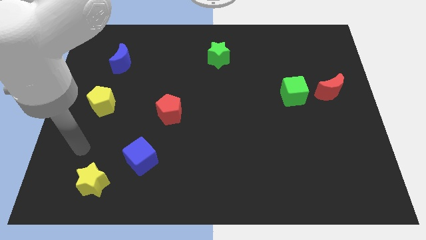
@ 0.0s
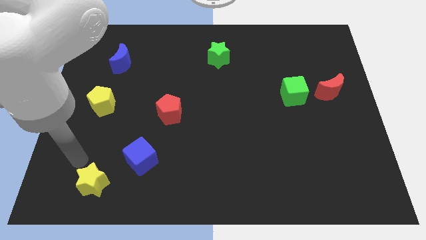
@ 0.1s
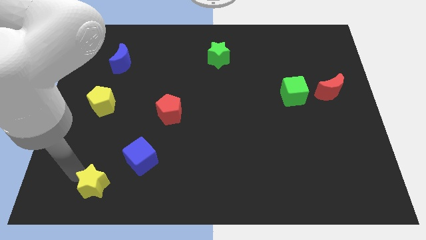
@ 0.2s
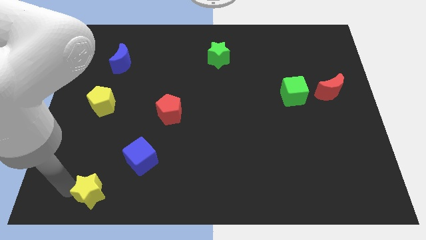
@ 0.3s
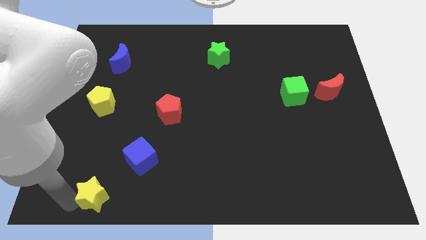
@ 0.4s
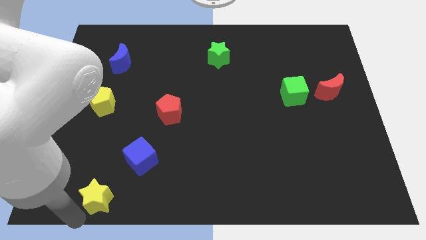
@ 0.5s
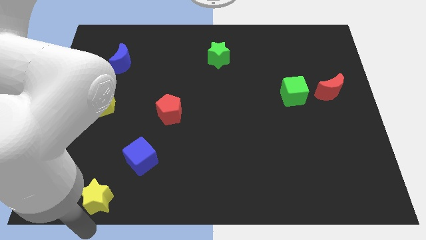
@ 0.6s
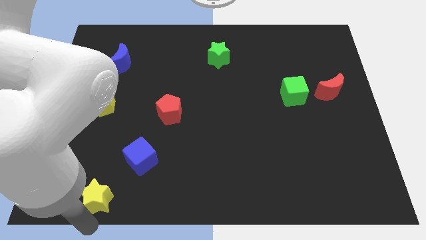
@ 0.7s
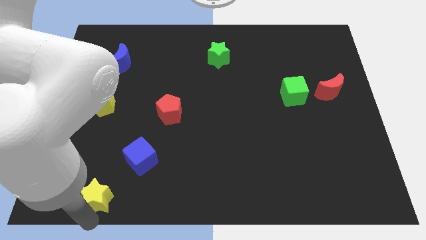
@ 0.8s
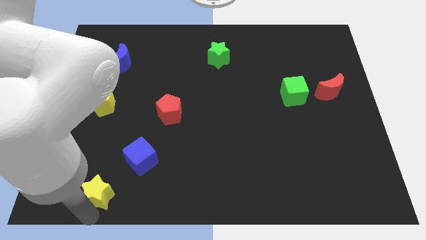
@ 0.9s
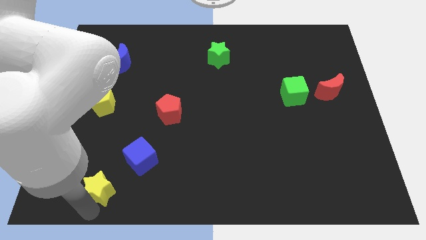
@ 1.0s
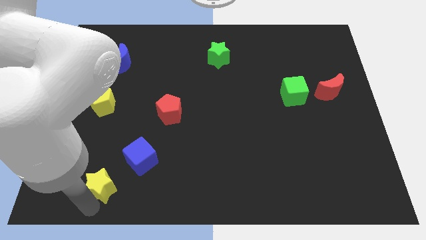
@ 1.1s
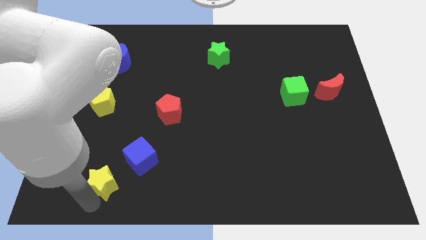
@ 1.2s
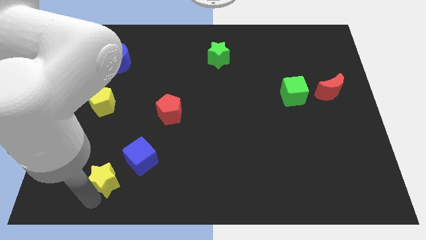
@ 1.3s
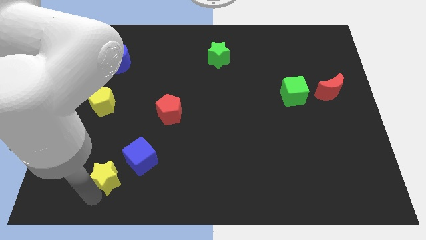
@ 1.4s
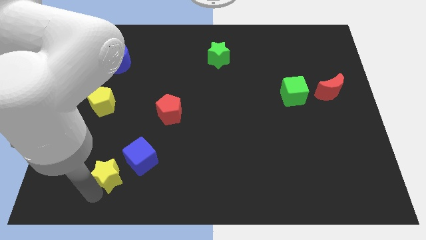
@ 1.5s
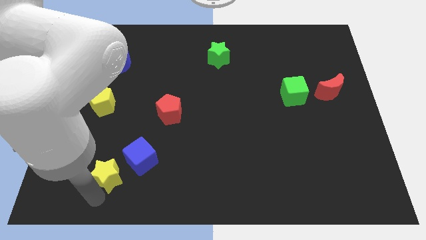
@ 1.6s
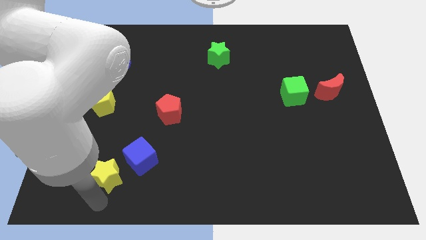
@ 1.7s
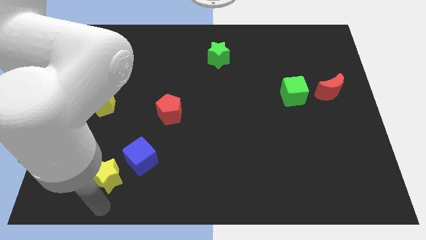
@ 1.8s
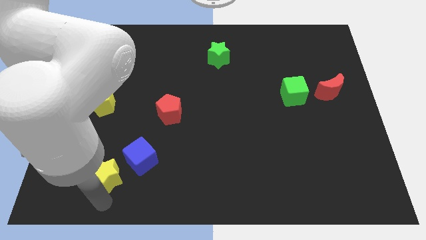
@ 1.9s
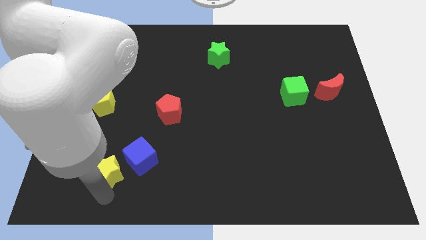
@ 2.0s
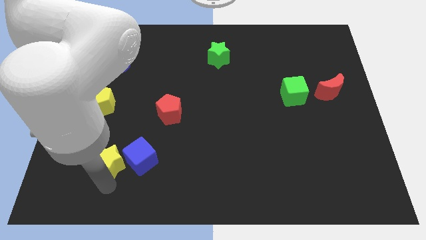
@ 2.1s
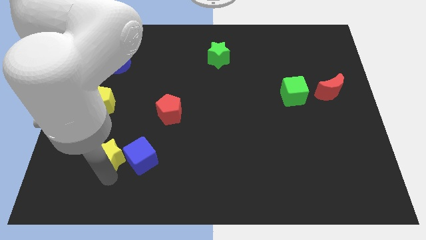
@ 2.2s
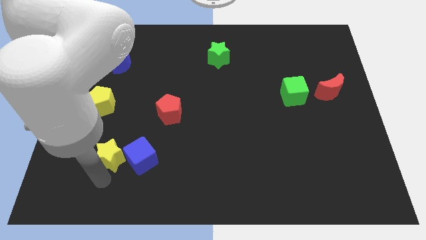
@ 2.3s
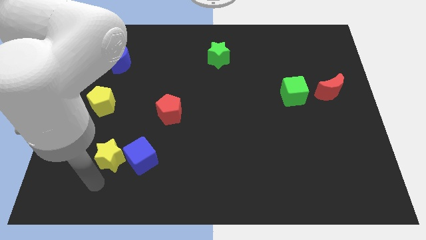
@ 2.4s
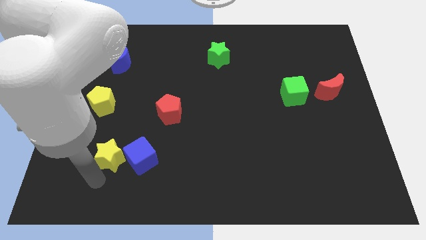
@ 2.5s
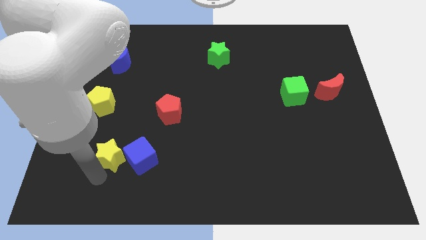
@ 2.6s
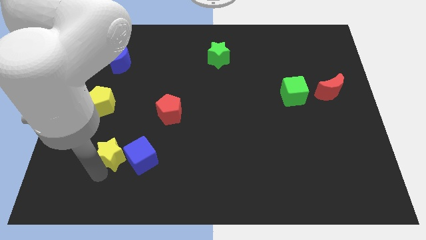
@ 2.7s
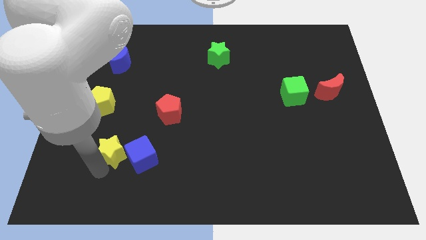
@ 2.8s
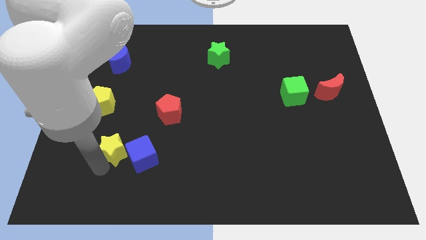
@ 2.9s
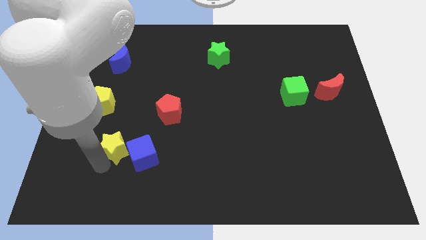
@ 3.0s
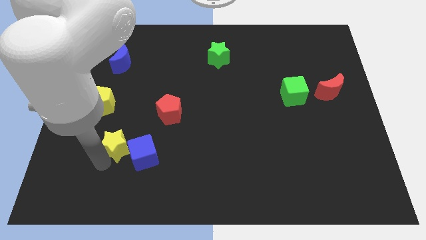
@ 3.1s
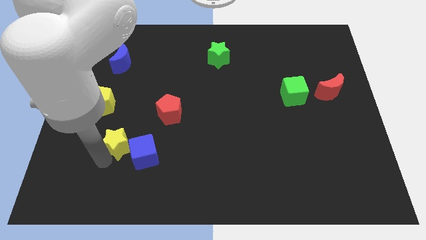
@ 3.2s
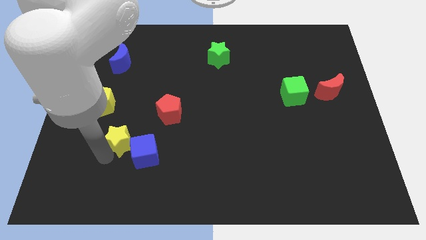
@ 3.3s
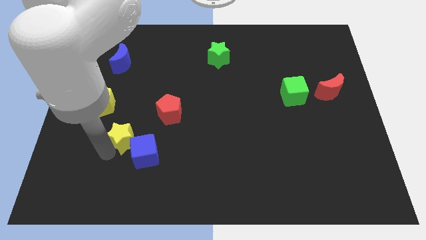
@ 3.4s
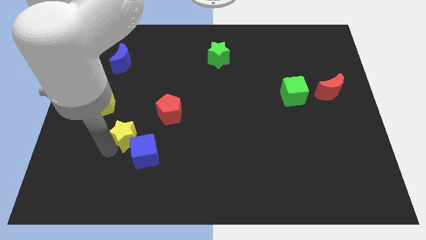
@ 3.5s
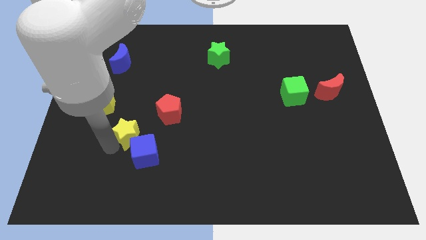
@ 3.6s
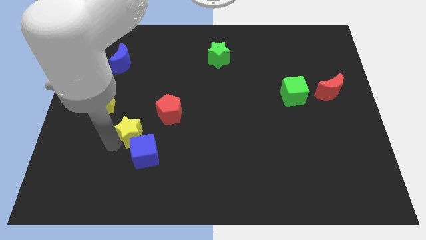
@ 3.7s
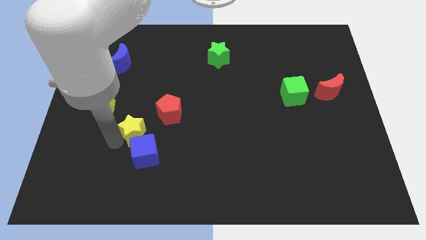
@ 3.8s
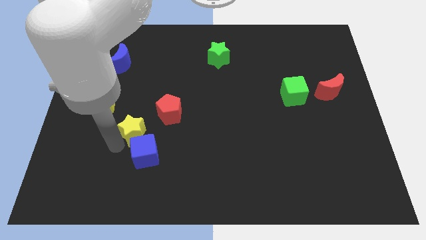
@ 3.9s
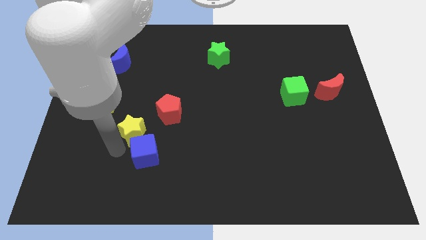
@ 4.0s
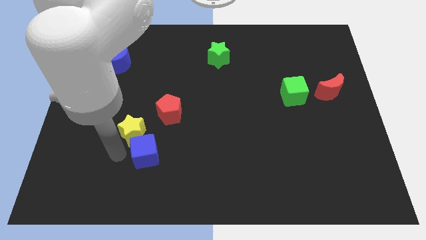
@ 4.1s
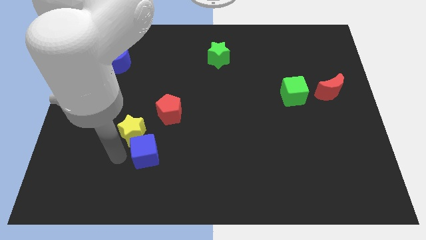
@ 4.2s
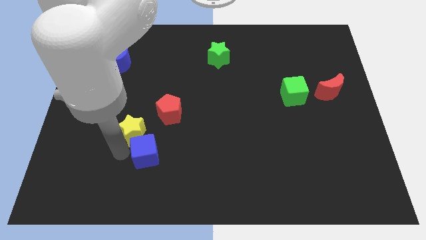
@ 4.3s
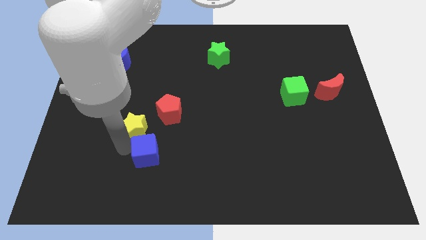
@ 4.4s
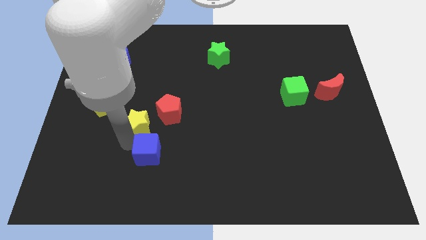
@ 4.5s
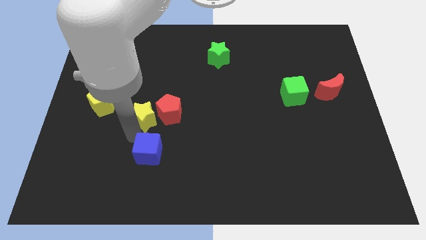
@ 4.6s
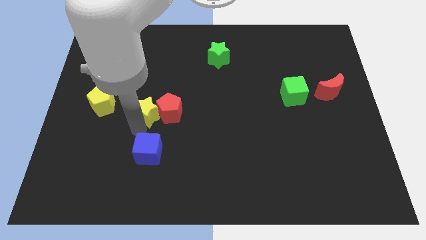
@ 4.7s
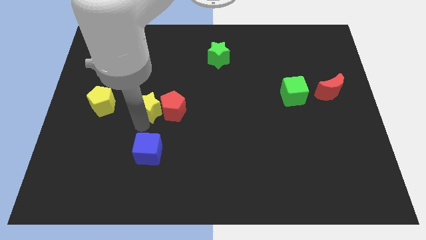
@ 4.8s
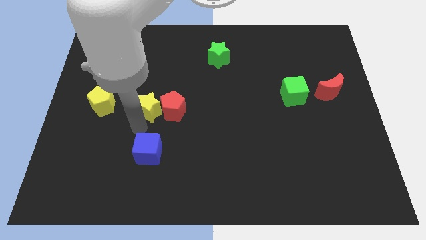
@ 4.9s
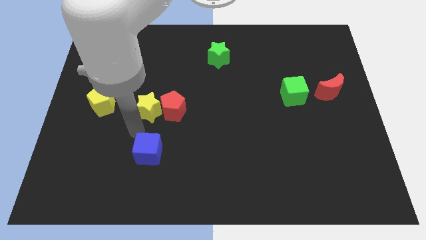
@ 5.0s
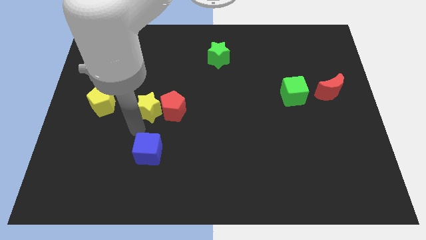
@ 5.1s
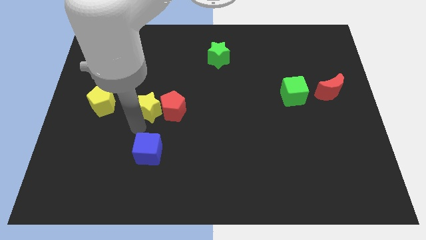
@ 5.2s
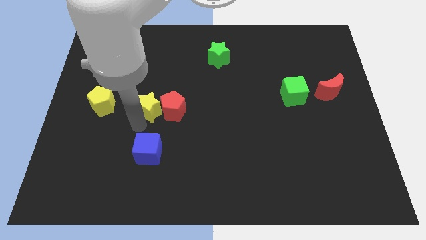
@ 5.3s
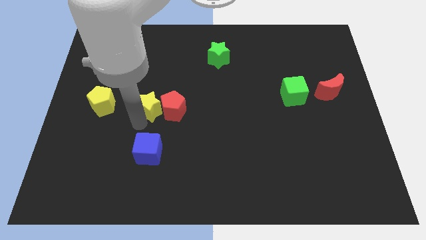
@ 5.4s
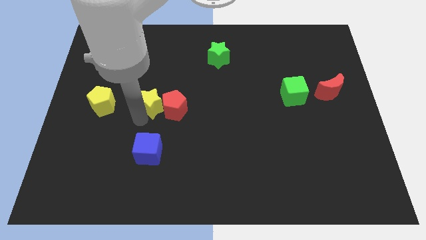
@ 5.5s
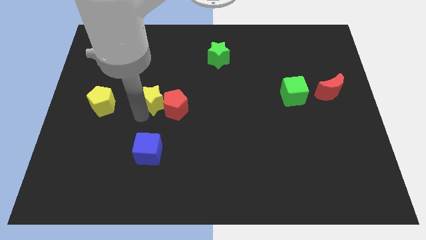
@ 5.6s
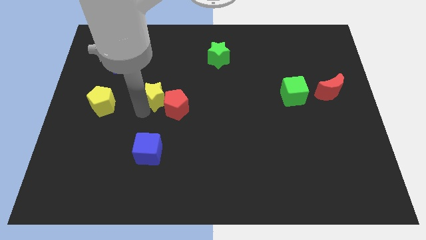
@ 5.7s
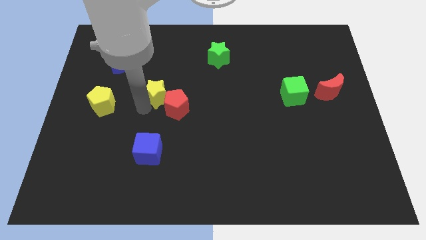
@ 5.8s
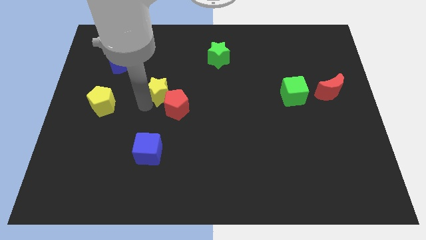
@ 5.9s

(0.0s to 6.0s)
slide the yellow star above the red pentagon
